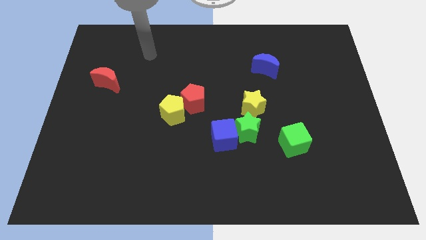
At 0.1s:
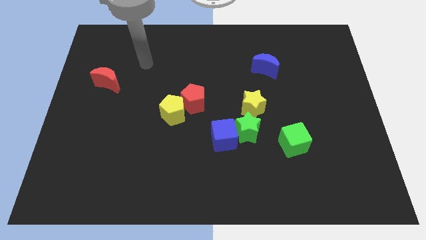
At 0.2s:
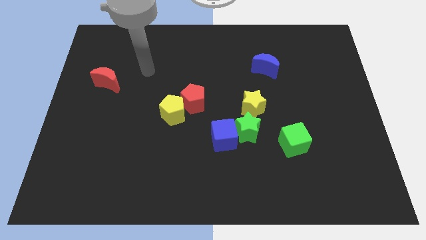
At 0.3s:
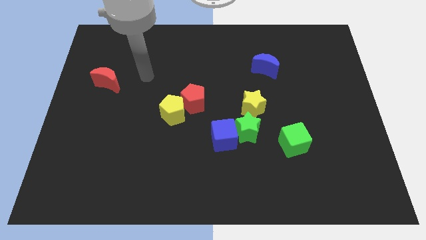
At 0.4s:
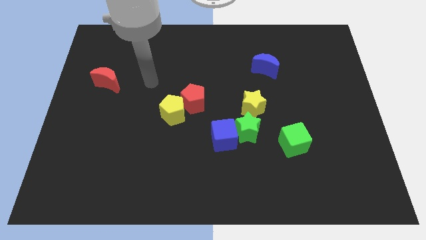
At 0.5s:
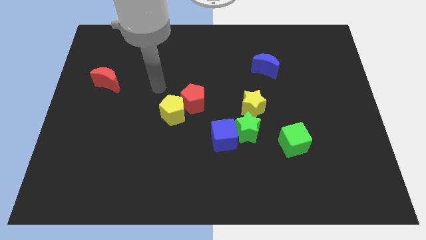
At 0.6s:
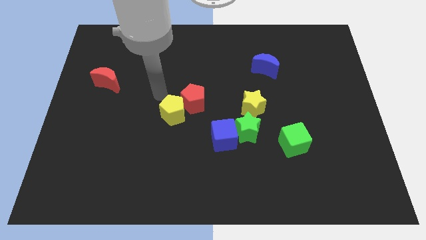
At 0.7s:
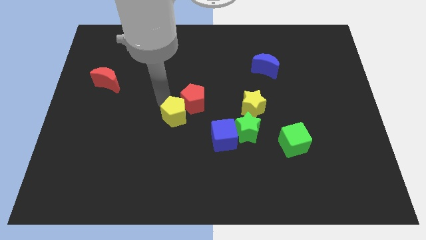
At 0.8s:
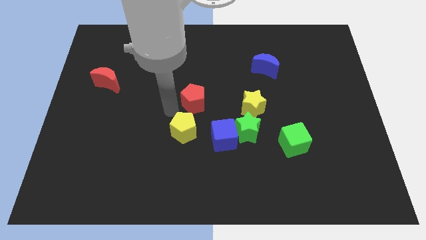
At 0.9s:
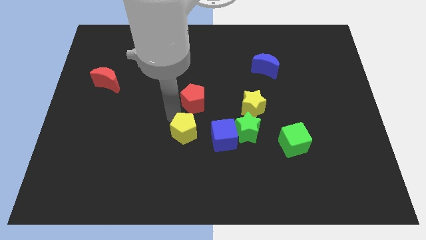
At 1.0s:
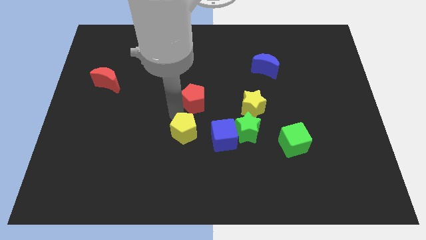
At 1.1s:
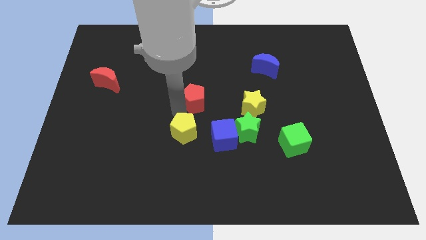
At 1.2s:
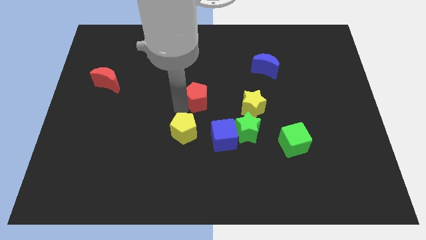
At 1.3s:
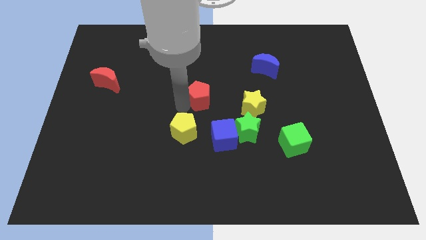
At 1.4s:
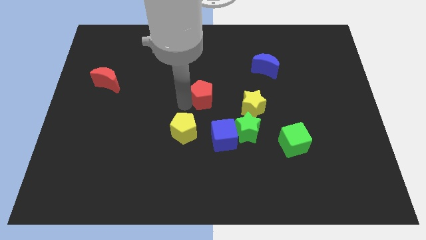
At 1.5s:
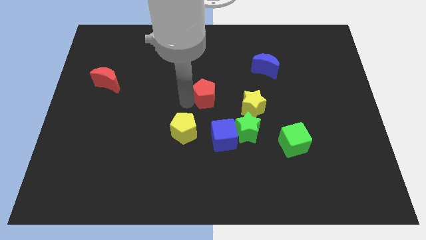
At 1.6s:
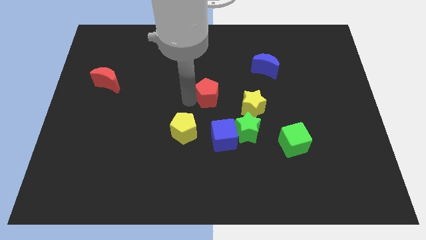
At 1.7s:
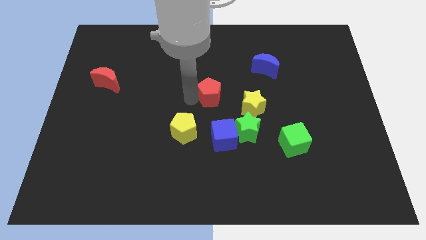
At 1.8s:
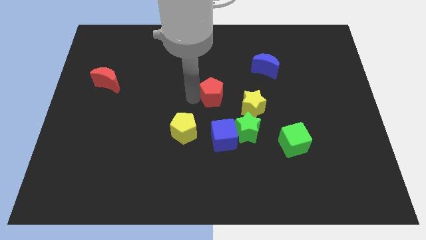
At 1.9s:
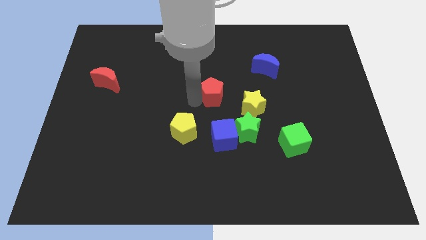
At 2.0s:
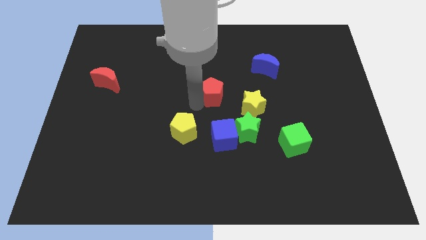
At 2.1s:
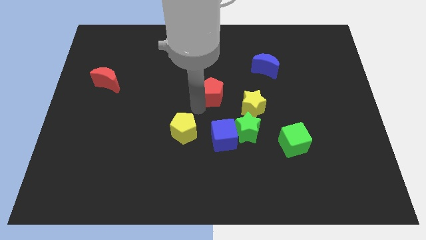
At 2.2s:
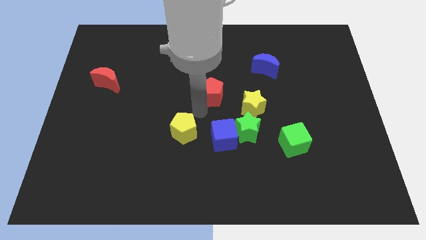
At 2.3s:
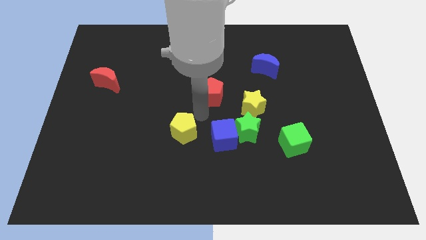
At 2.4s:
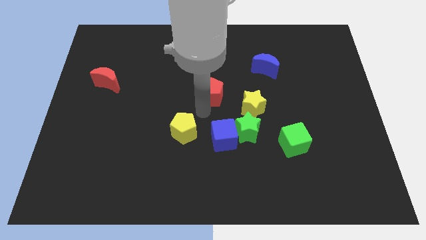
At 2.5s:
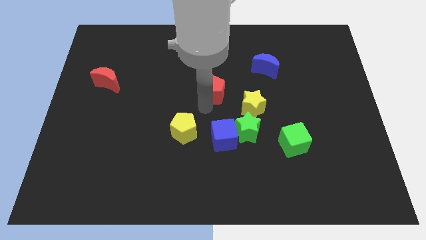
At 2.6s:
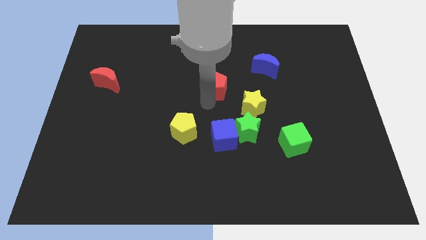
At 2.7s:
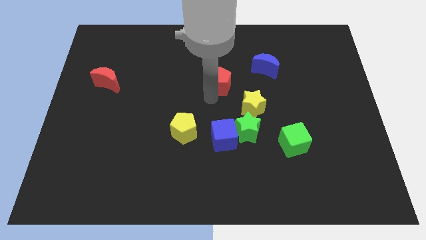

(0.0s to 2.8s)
slightly push the red pentagon up and right

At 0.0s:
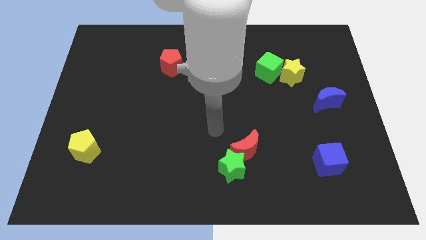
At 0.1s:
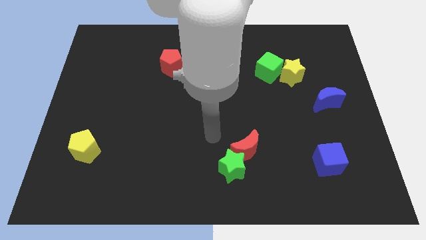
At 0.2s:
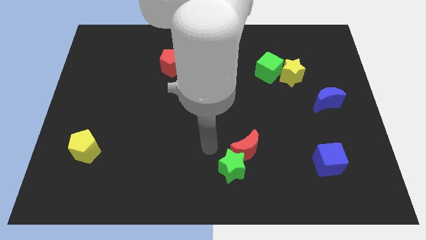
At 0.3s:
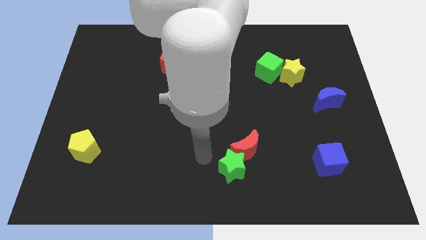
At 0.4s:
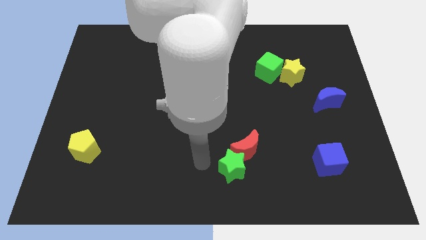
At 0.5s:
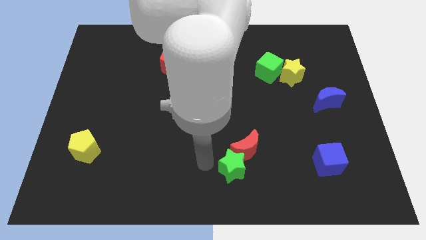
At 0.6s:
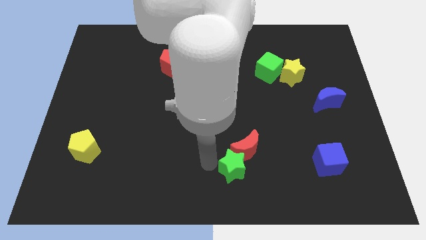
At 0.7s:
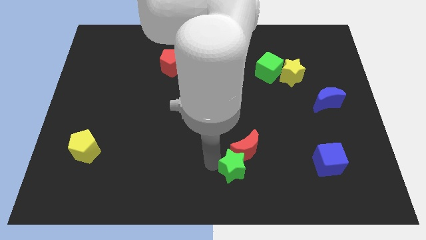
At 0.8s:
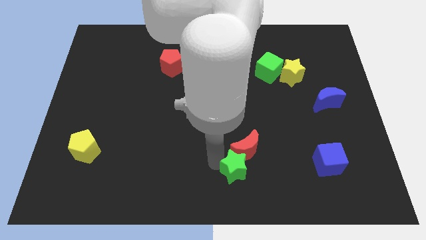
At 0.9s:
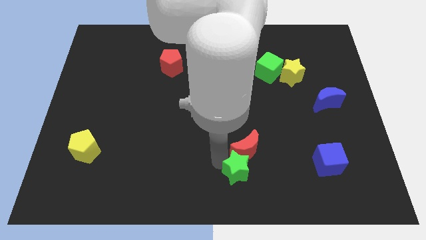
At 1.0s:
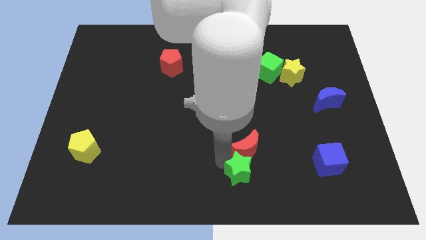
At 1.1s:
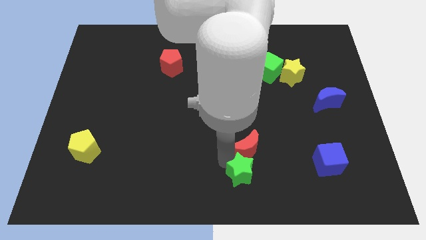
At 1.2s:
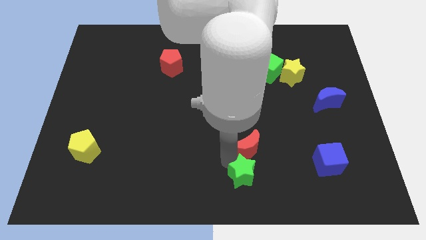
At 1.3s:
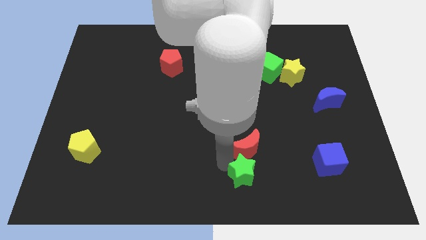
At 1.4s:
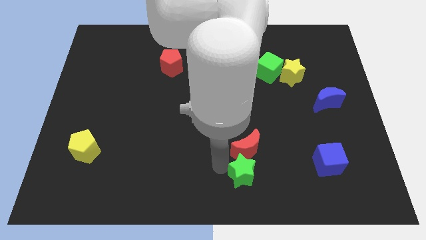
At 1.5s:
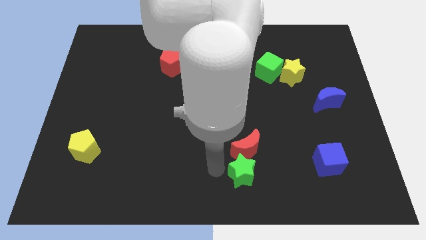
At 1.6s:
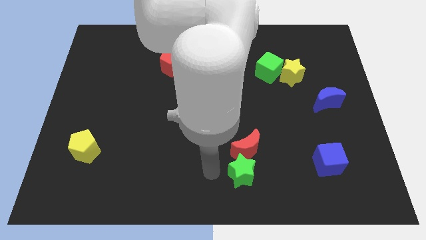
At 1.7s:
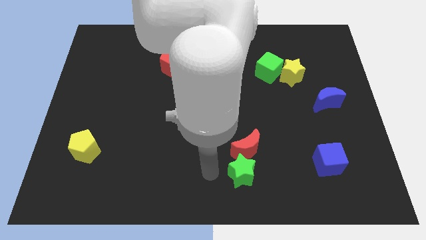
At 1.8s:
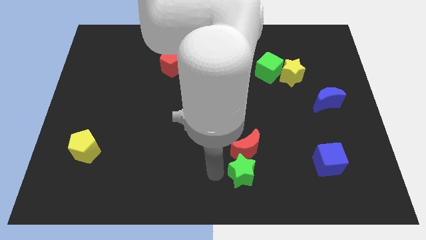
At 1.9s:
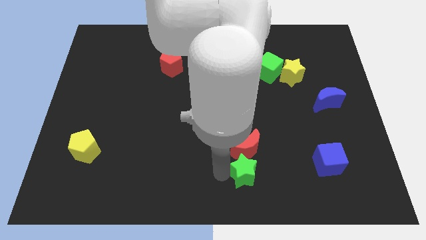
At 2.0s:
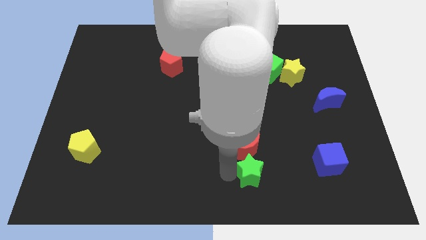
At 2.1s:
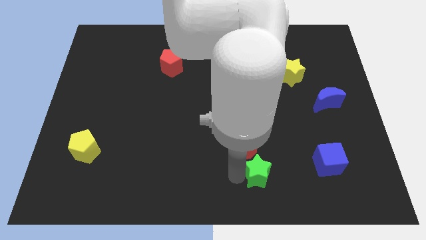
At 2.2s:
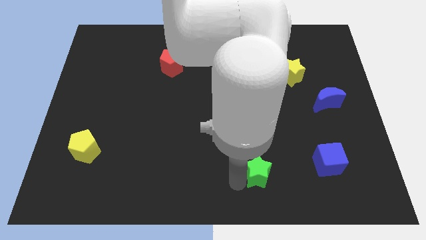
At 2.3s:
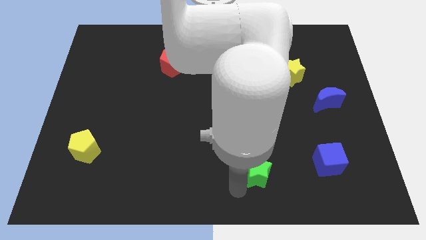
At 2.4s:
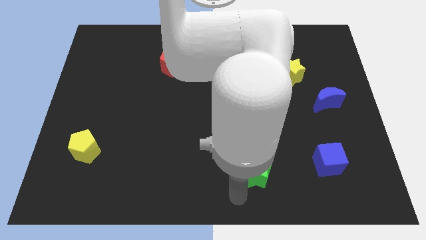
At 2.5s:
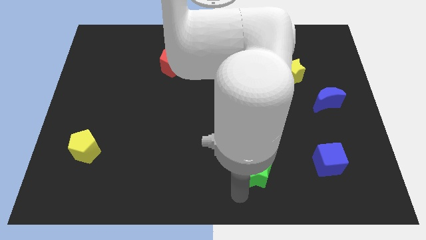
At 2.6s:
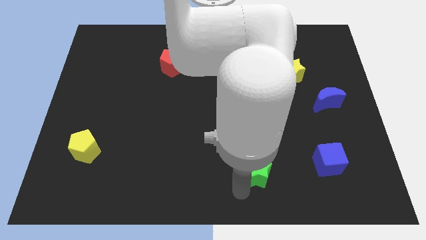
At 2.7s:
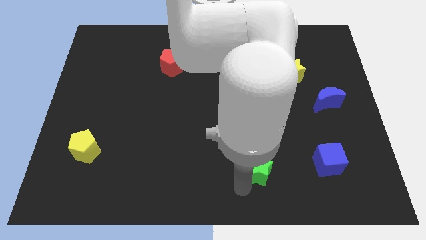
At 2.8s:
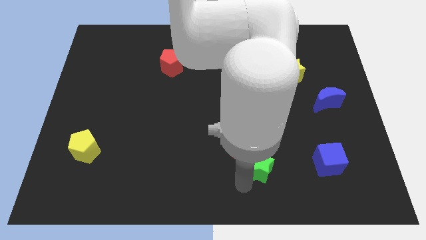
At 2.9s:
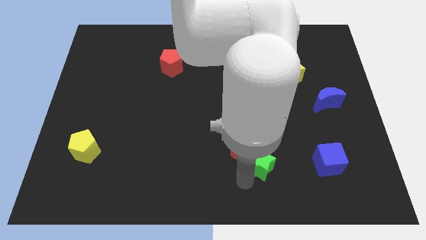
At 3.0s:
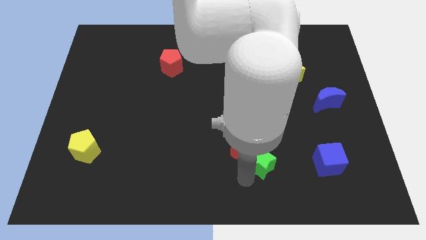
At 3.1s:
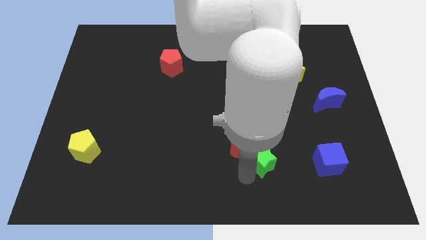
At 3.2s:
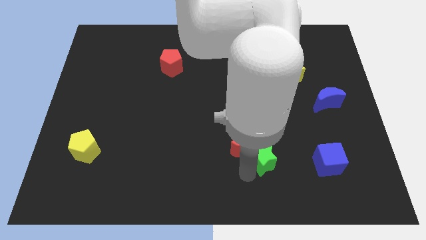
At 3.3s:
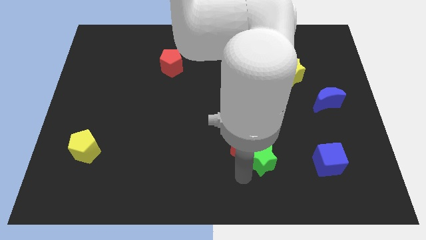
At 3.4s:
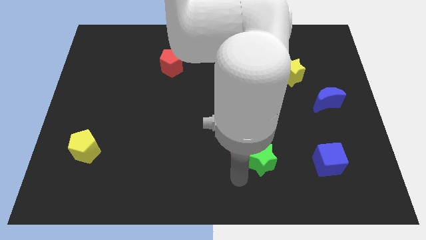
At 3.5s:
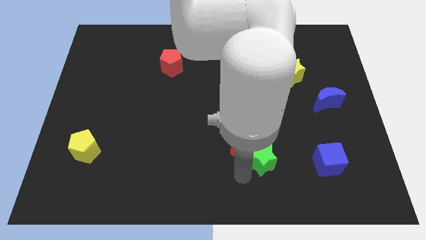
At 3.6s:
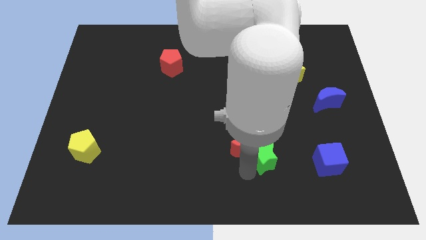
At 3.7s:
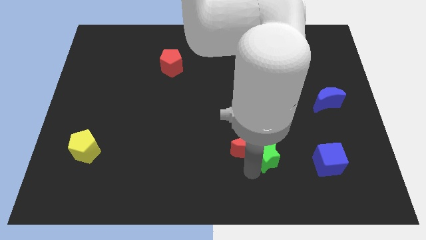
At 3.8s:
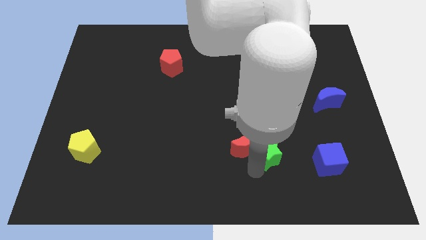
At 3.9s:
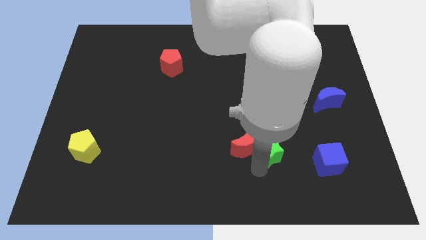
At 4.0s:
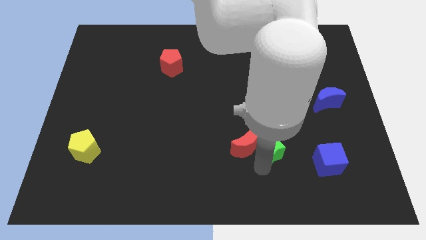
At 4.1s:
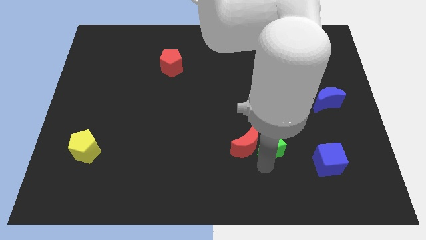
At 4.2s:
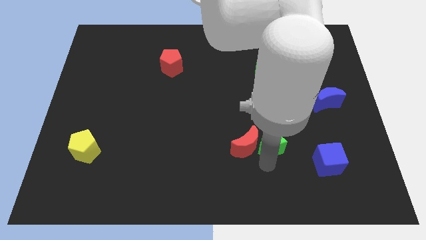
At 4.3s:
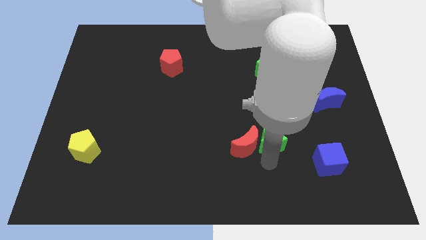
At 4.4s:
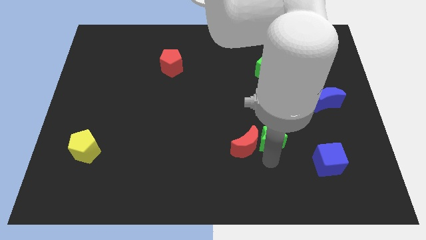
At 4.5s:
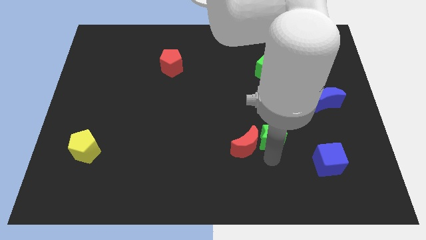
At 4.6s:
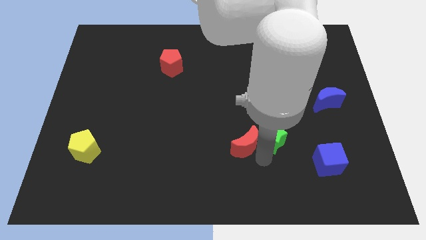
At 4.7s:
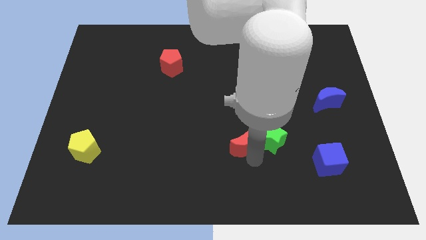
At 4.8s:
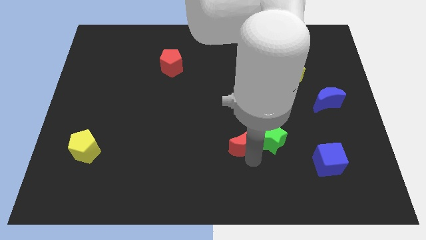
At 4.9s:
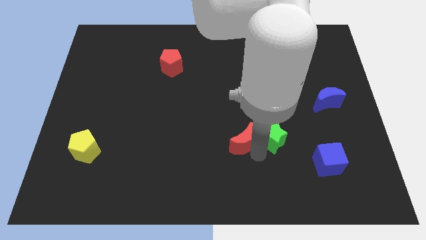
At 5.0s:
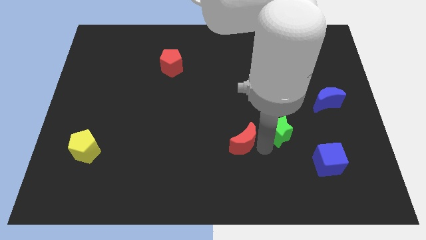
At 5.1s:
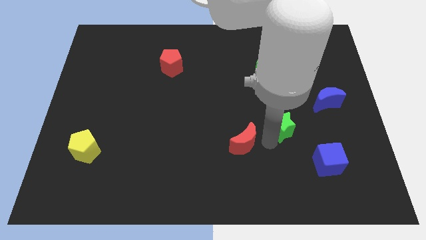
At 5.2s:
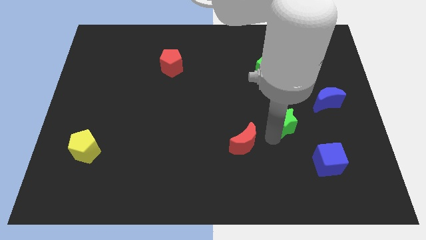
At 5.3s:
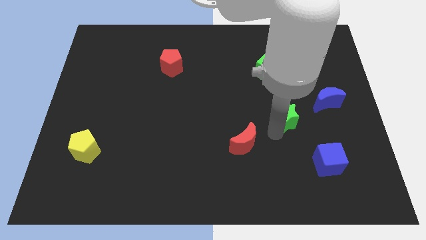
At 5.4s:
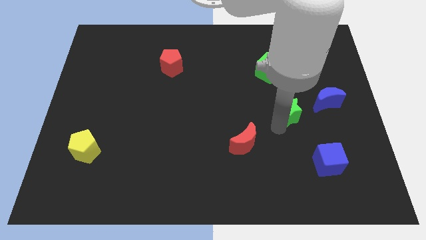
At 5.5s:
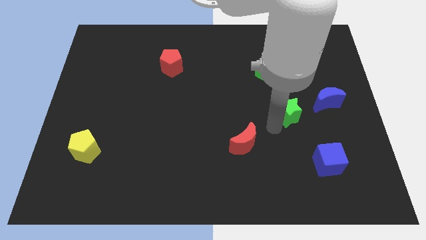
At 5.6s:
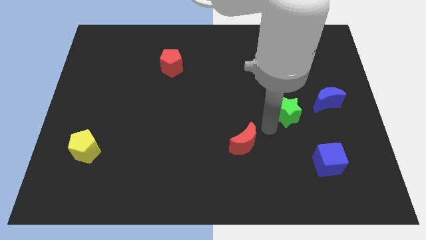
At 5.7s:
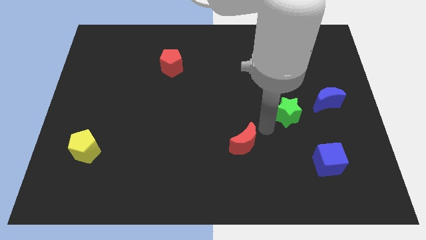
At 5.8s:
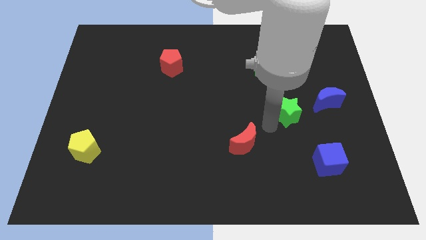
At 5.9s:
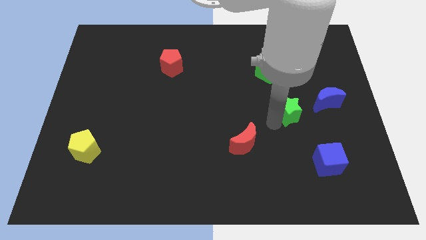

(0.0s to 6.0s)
push the green star upwards and to the right diagonally
